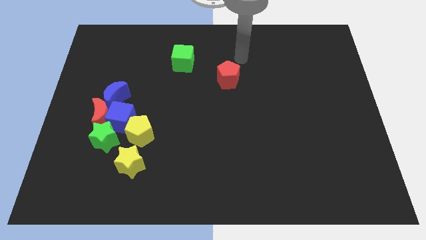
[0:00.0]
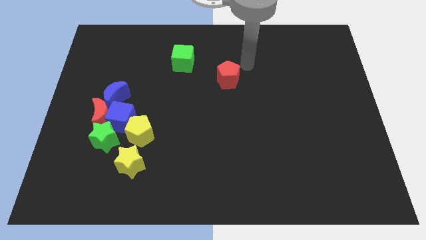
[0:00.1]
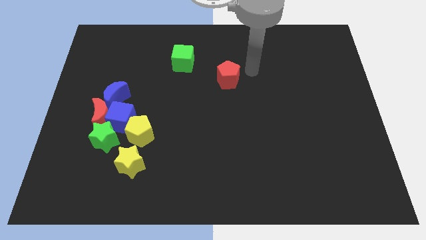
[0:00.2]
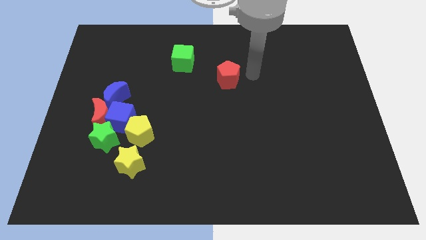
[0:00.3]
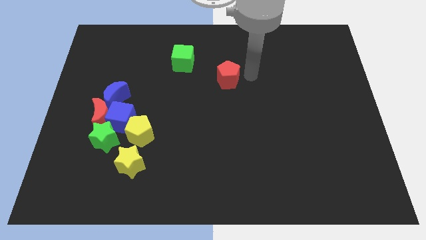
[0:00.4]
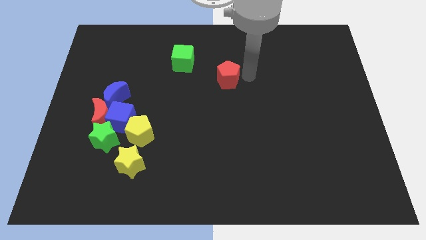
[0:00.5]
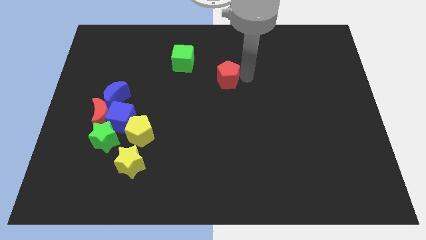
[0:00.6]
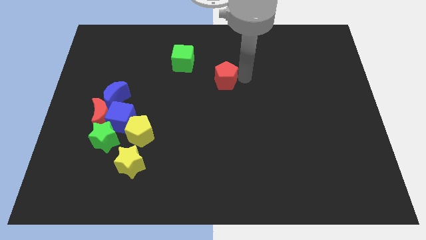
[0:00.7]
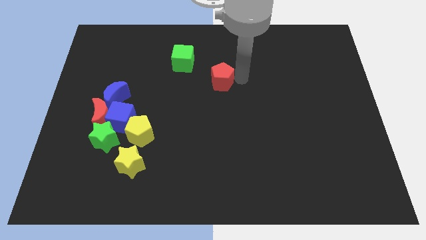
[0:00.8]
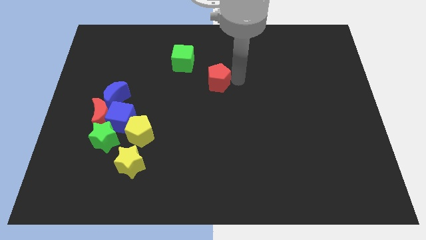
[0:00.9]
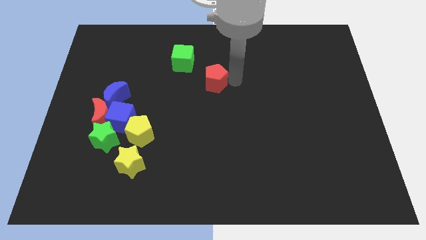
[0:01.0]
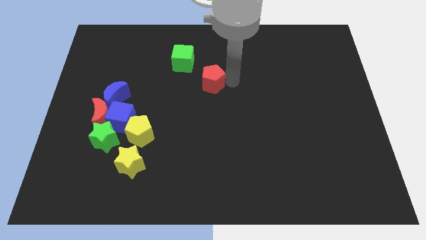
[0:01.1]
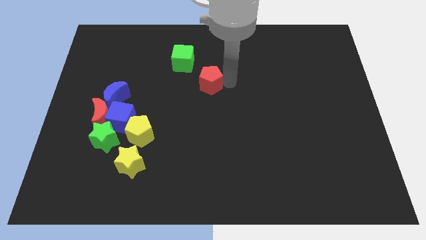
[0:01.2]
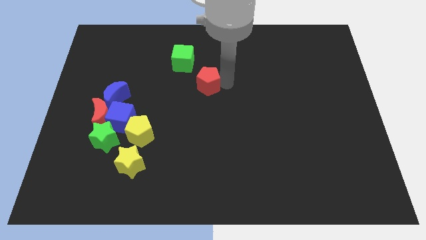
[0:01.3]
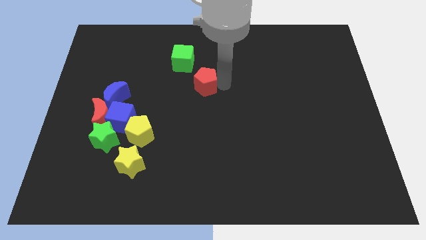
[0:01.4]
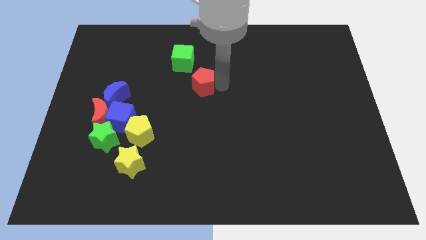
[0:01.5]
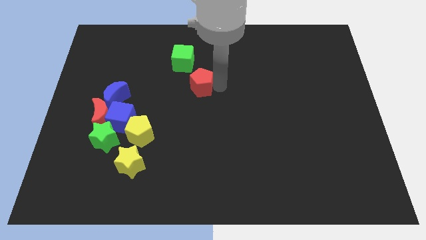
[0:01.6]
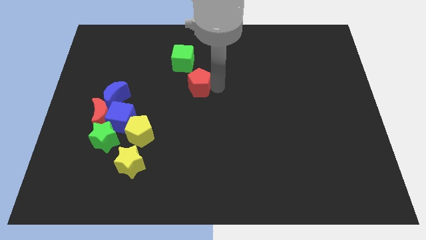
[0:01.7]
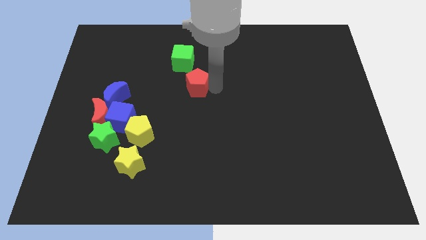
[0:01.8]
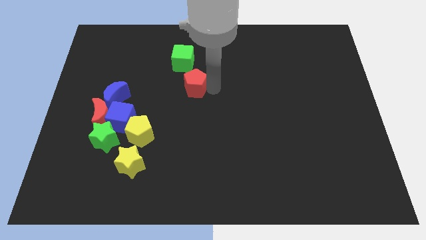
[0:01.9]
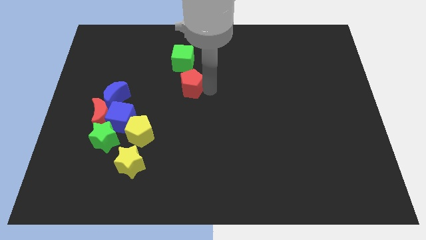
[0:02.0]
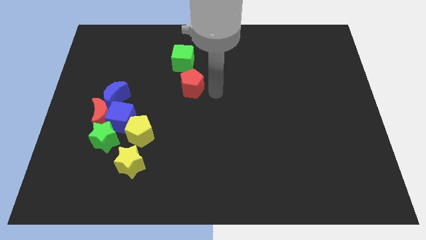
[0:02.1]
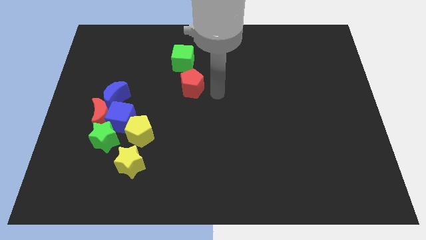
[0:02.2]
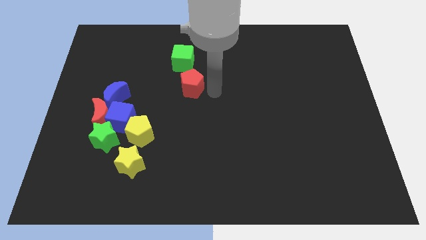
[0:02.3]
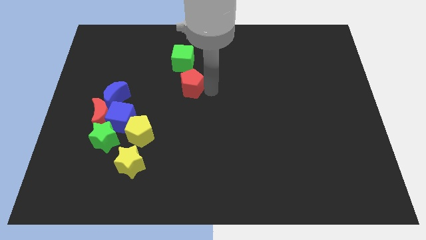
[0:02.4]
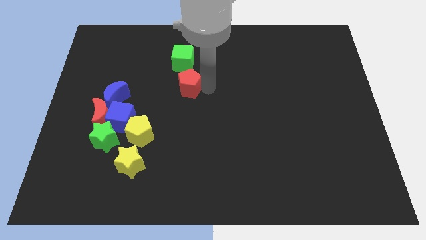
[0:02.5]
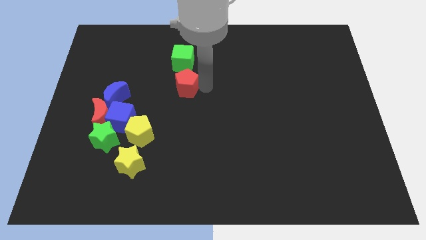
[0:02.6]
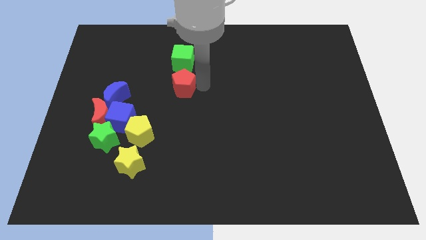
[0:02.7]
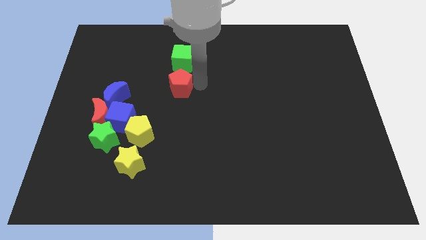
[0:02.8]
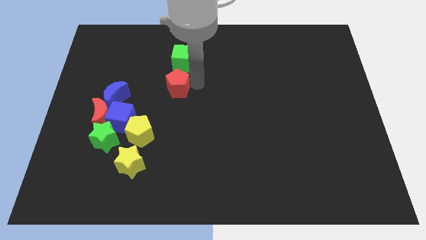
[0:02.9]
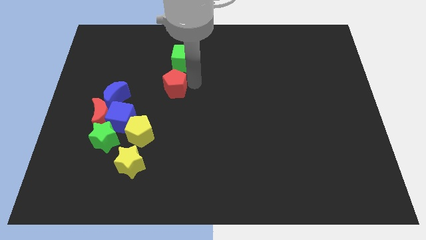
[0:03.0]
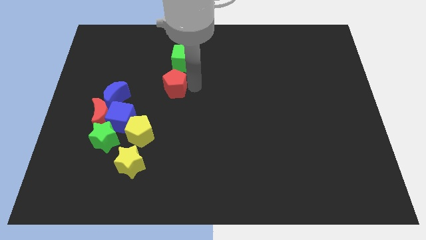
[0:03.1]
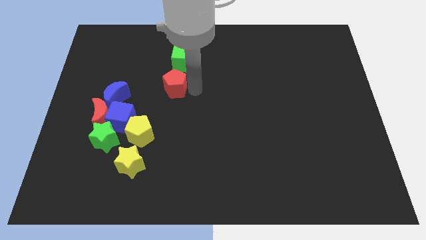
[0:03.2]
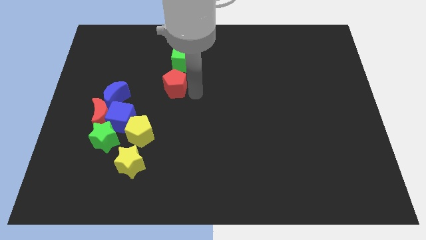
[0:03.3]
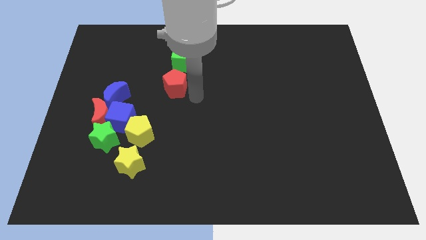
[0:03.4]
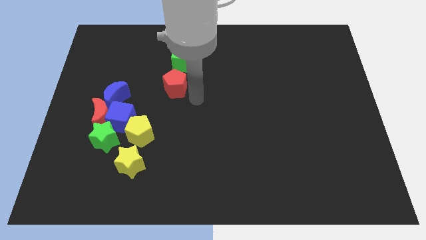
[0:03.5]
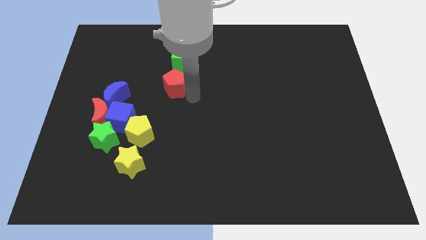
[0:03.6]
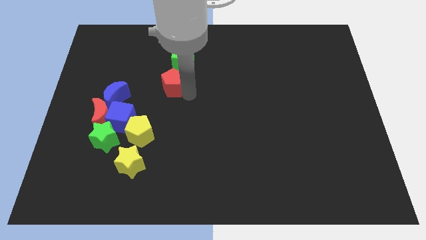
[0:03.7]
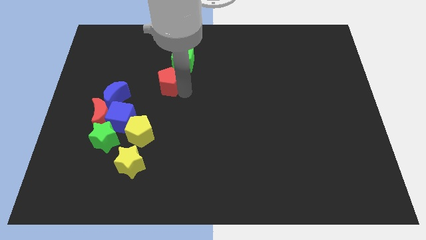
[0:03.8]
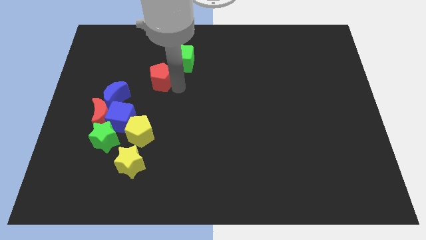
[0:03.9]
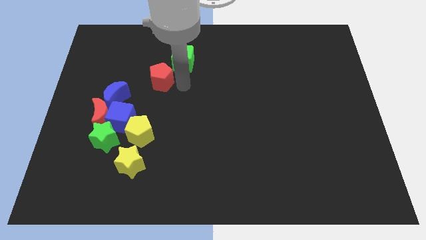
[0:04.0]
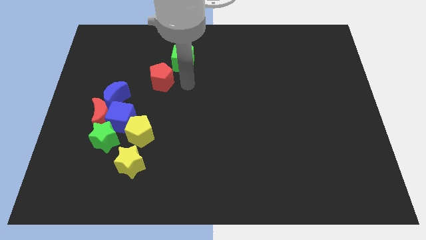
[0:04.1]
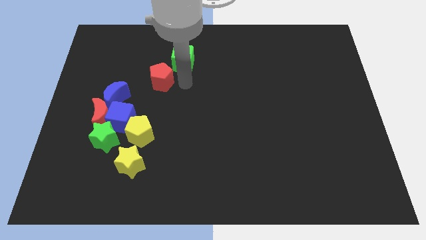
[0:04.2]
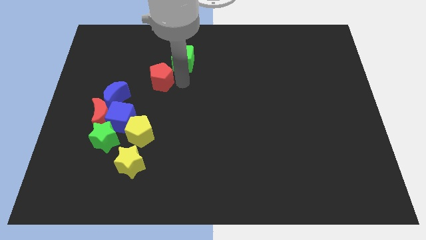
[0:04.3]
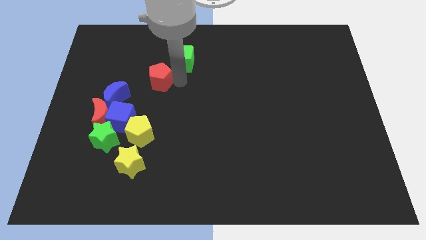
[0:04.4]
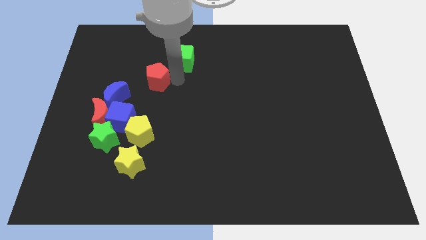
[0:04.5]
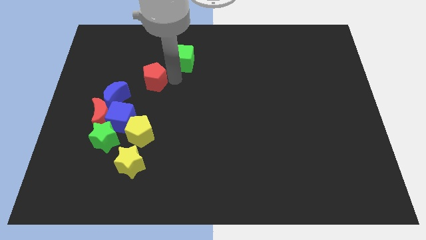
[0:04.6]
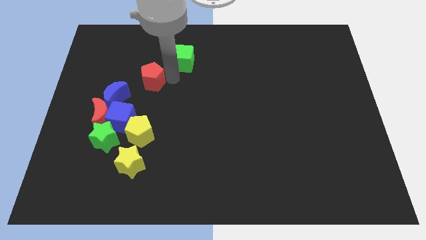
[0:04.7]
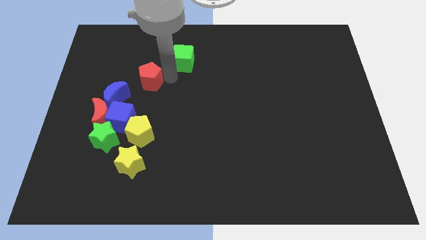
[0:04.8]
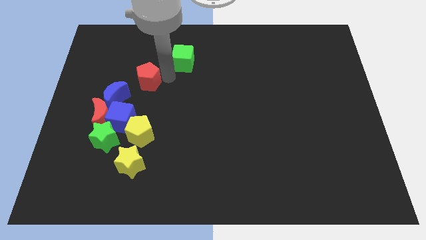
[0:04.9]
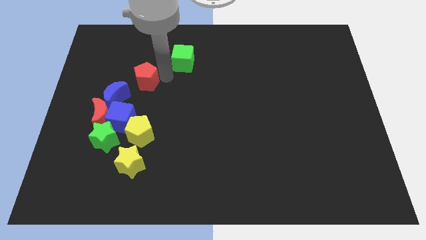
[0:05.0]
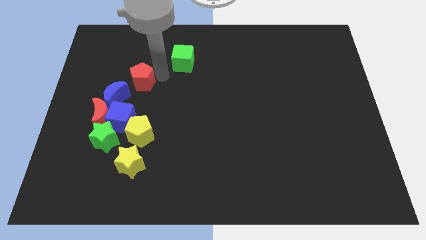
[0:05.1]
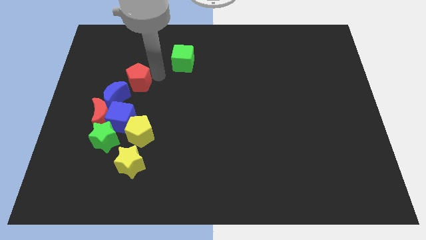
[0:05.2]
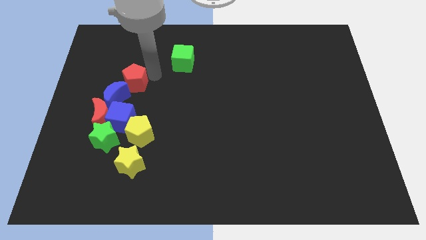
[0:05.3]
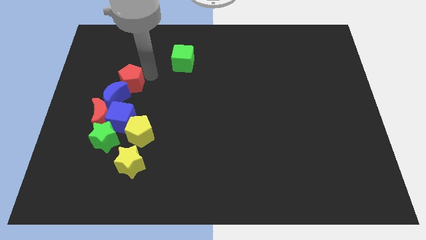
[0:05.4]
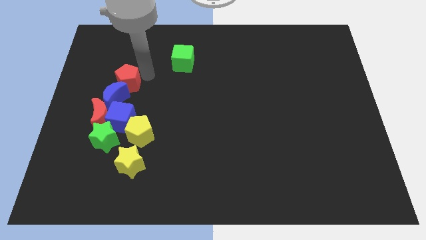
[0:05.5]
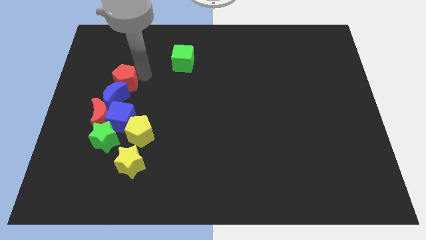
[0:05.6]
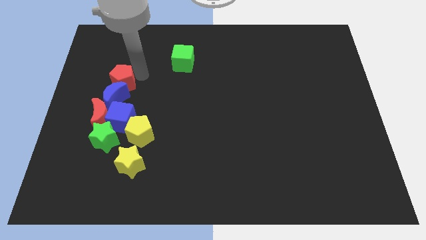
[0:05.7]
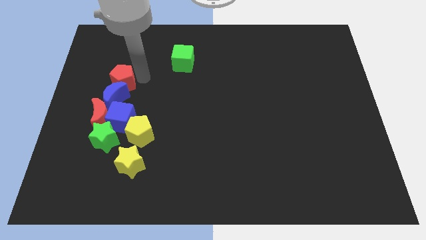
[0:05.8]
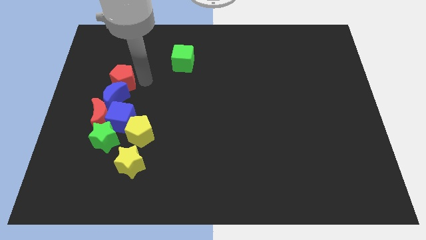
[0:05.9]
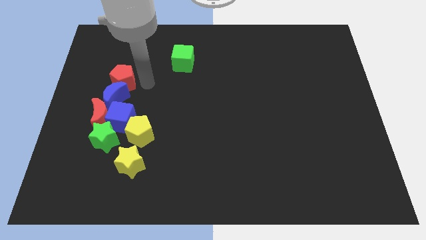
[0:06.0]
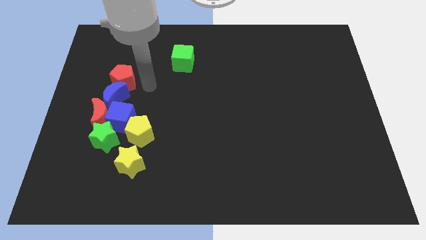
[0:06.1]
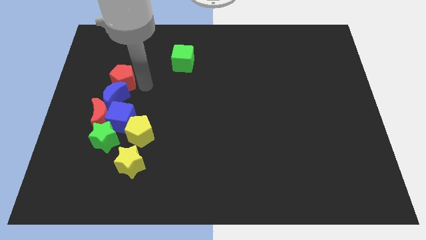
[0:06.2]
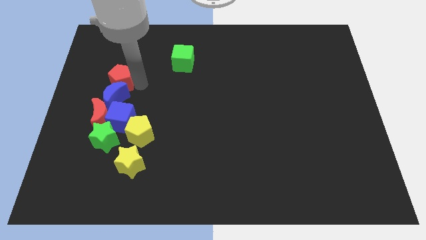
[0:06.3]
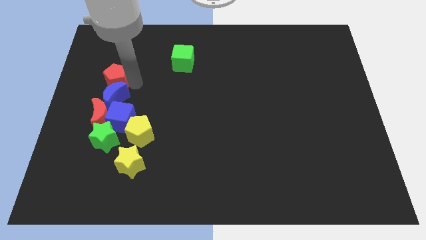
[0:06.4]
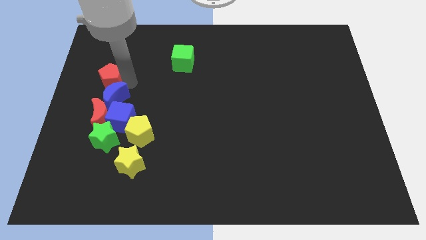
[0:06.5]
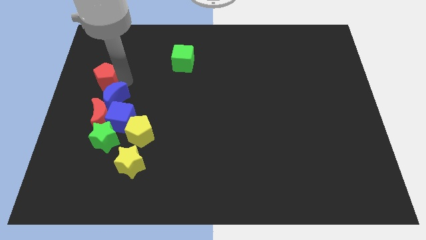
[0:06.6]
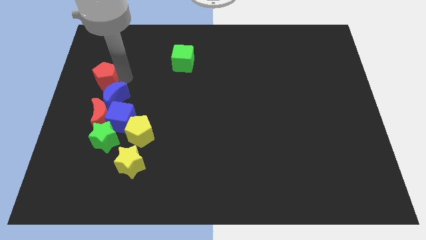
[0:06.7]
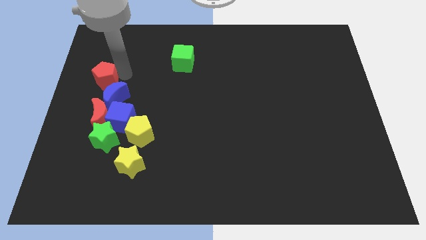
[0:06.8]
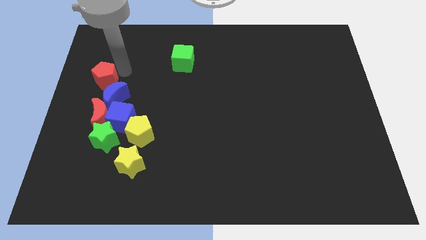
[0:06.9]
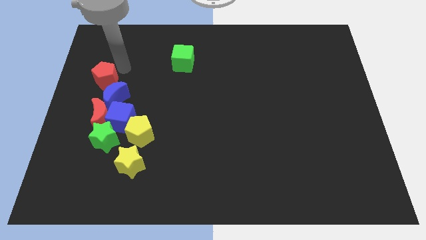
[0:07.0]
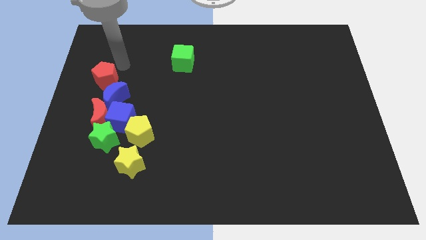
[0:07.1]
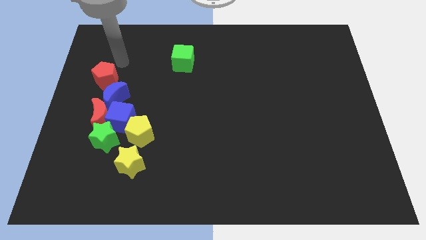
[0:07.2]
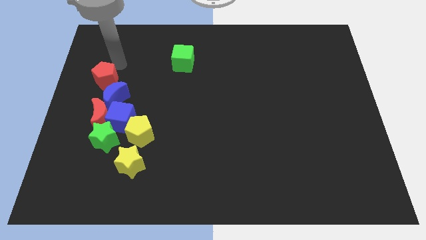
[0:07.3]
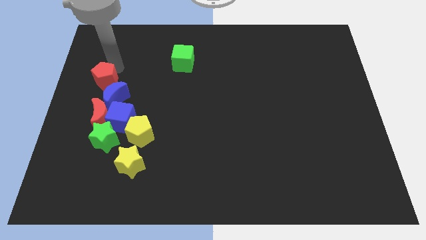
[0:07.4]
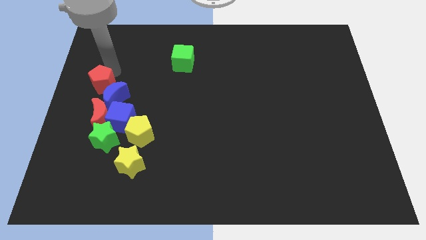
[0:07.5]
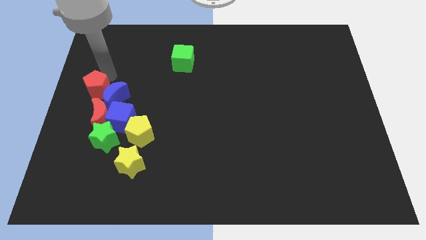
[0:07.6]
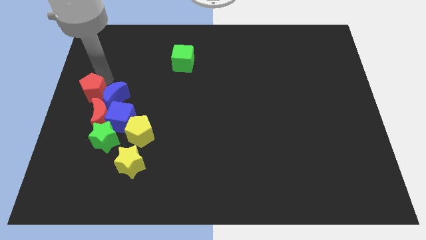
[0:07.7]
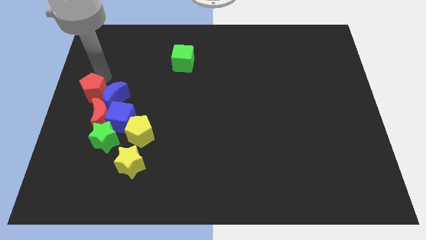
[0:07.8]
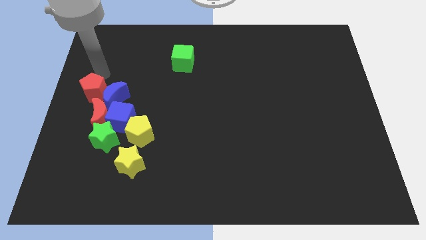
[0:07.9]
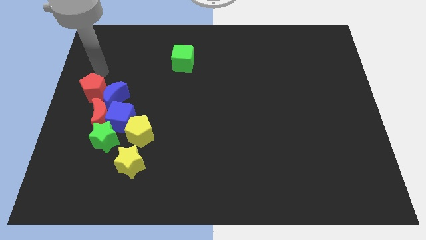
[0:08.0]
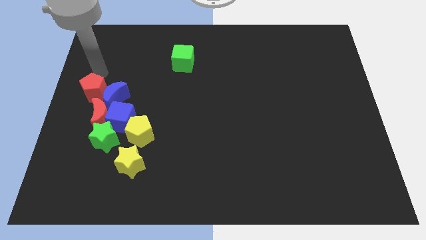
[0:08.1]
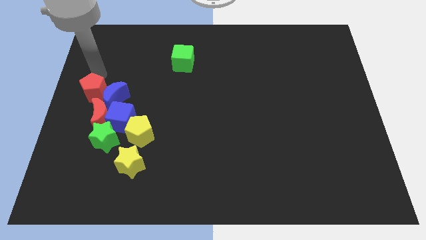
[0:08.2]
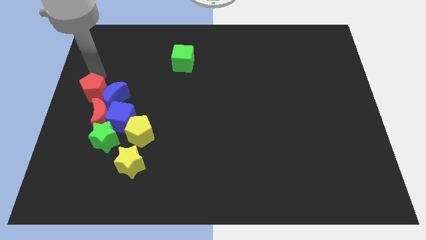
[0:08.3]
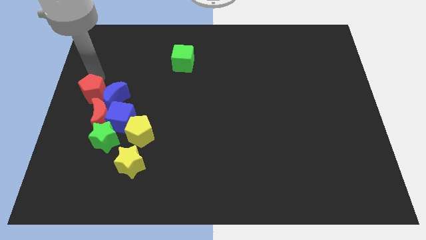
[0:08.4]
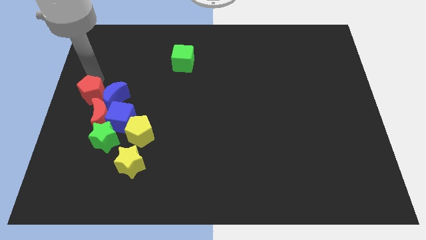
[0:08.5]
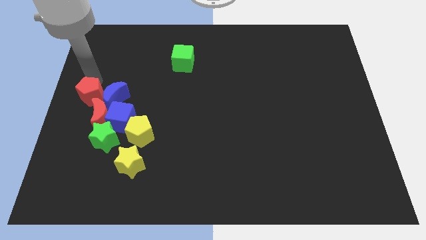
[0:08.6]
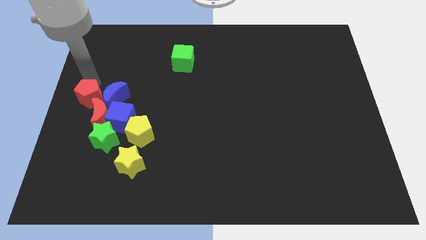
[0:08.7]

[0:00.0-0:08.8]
put the red pentagon diagonally down and to the left of the blue moon
